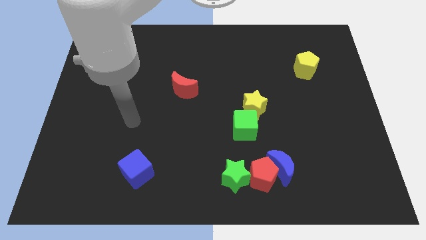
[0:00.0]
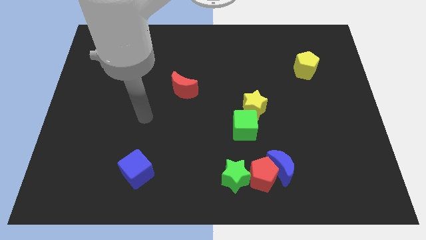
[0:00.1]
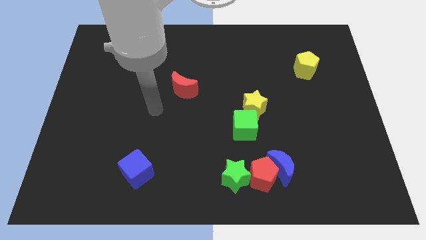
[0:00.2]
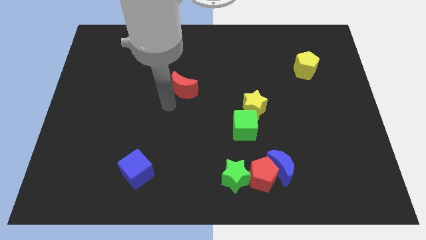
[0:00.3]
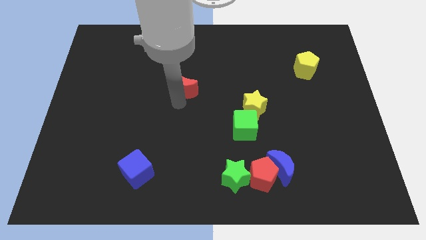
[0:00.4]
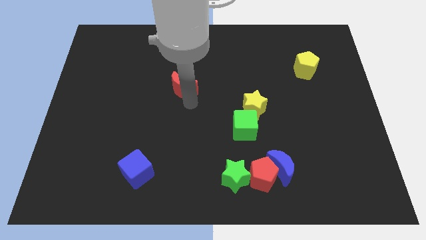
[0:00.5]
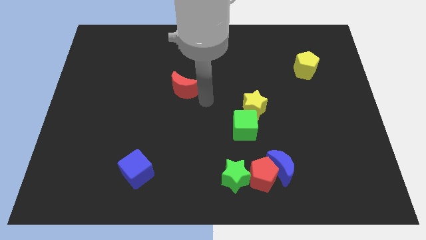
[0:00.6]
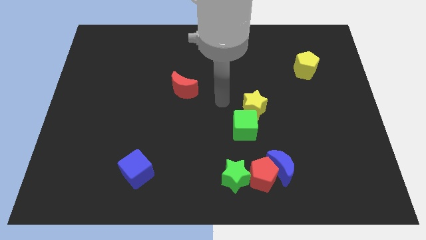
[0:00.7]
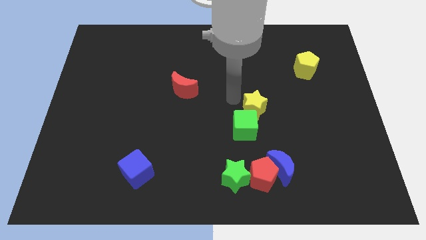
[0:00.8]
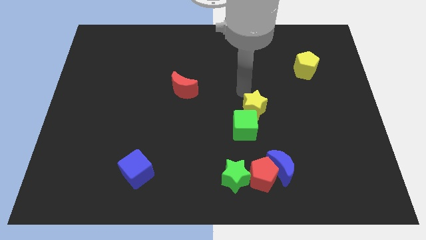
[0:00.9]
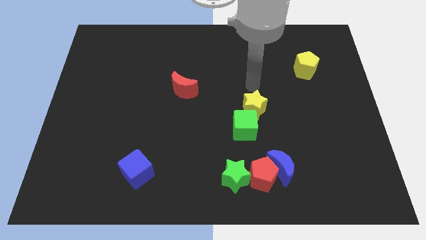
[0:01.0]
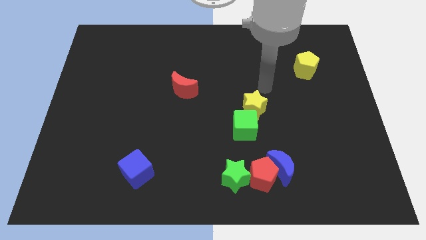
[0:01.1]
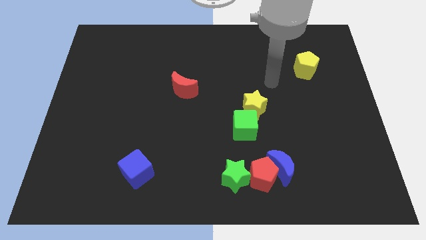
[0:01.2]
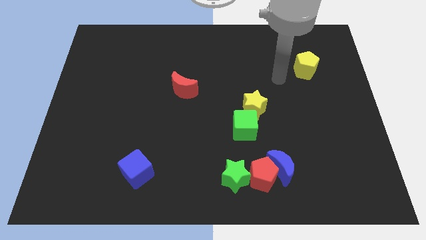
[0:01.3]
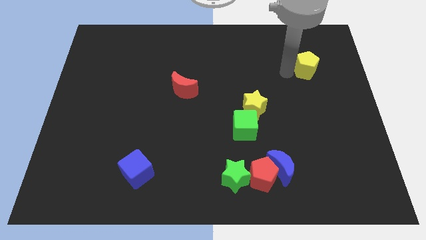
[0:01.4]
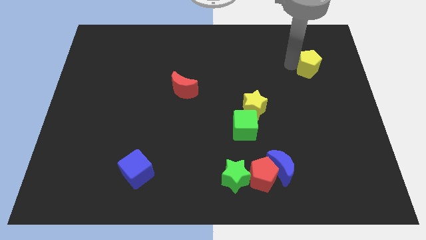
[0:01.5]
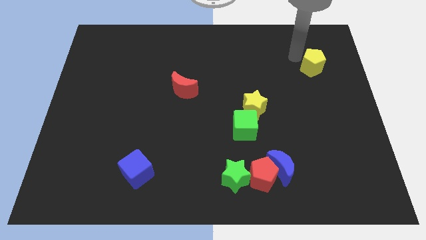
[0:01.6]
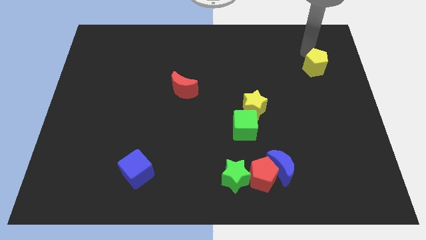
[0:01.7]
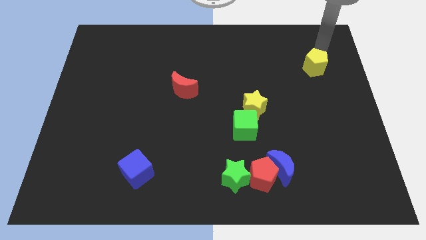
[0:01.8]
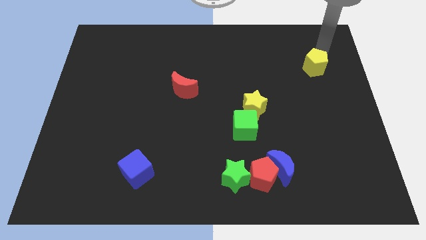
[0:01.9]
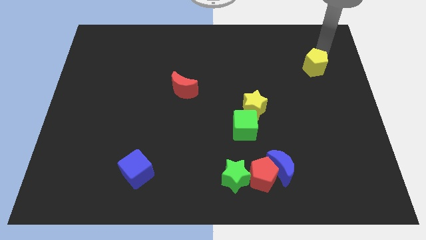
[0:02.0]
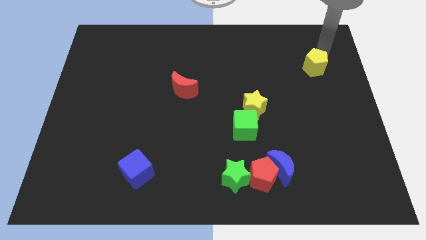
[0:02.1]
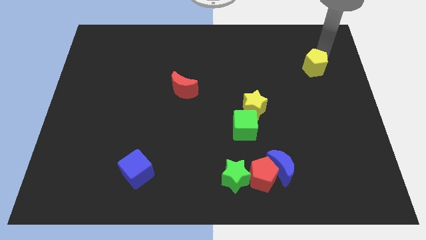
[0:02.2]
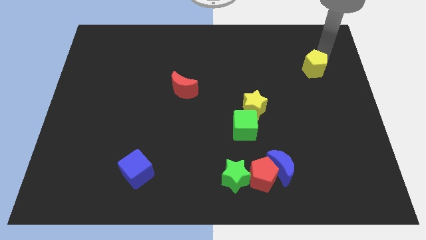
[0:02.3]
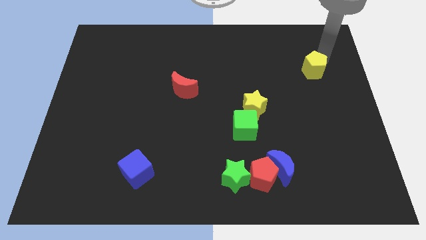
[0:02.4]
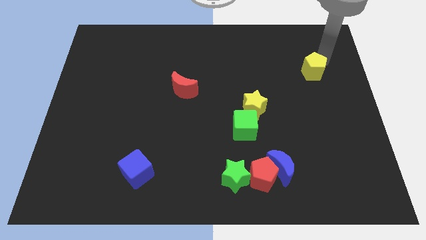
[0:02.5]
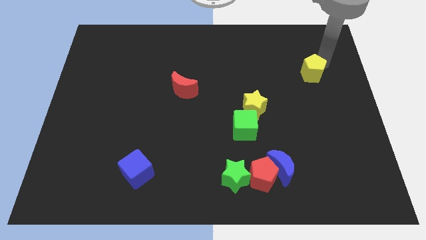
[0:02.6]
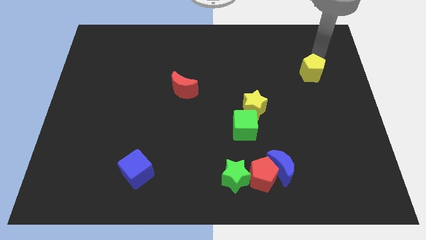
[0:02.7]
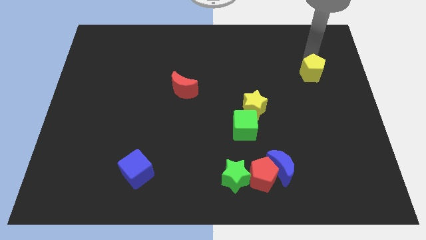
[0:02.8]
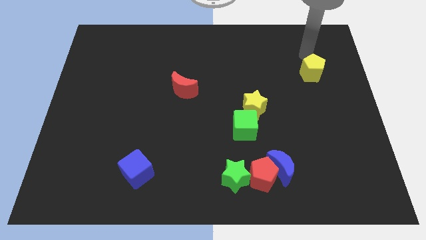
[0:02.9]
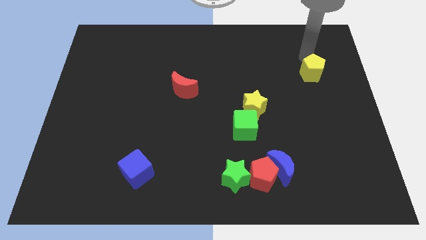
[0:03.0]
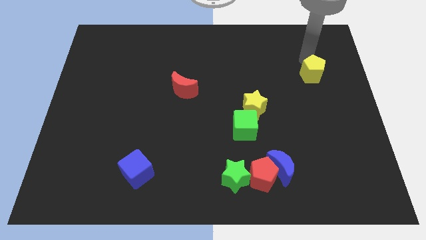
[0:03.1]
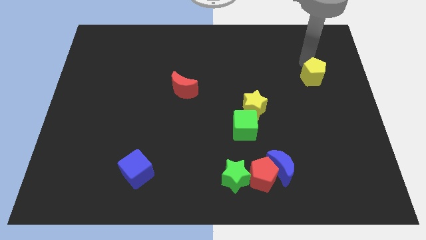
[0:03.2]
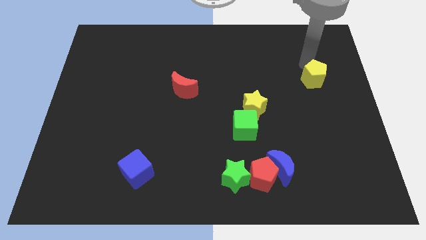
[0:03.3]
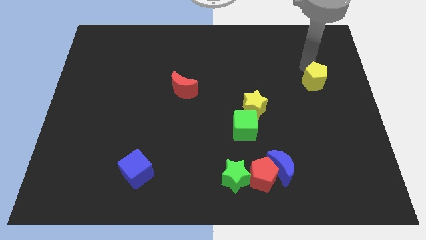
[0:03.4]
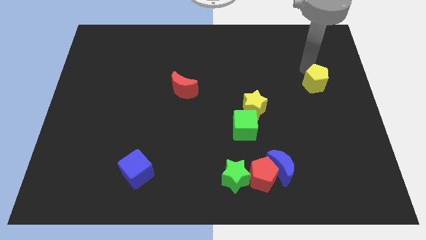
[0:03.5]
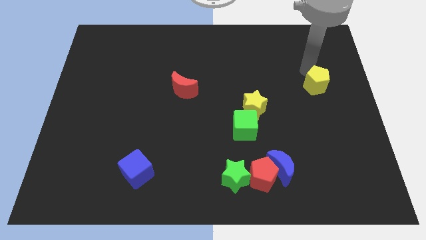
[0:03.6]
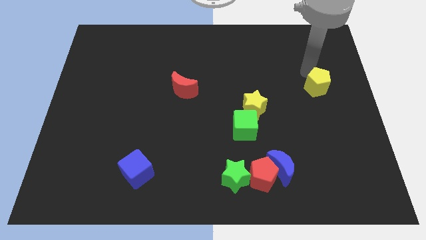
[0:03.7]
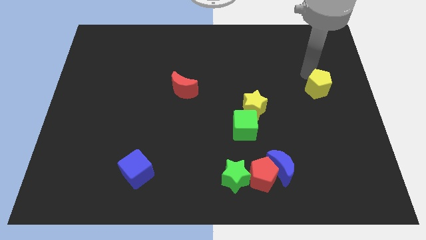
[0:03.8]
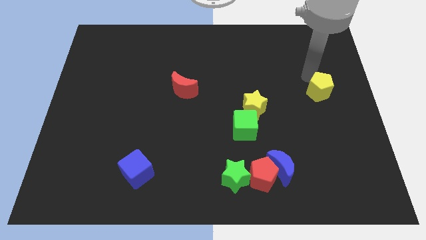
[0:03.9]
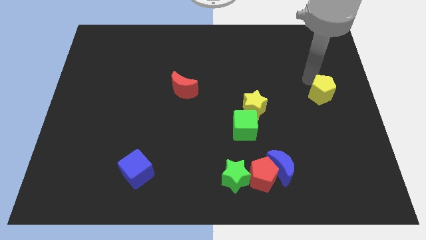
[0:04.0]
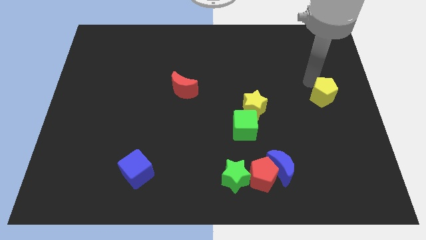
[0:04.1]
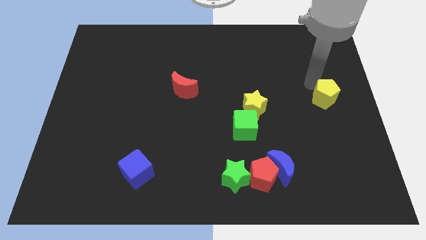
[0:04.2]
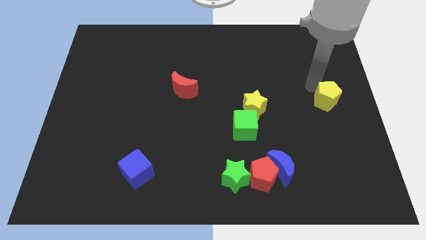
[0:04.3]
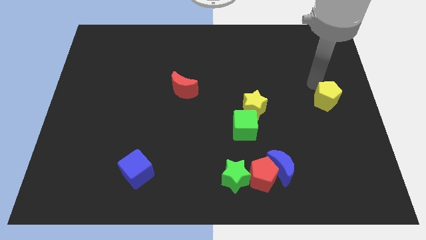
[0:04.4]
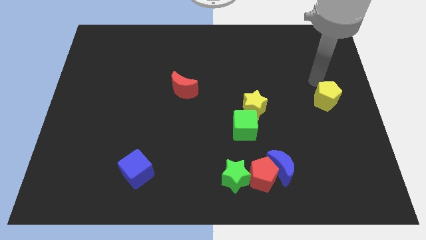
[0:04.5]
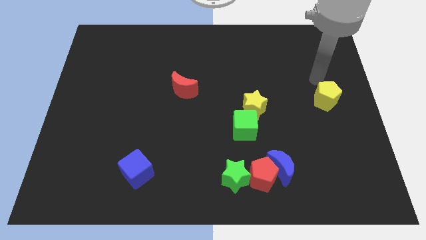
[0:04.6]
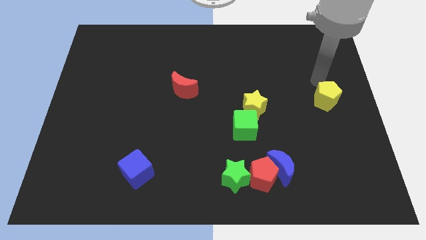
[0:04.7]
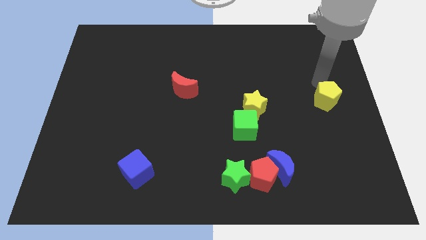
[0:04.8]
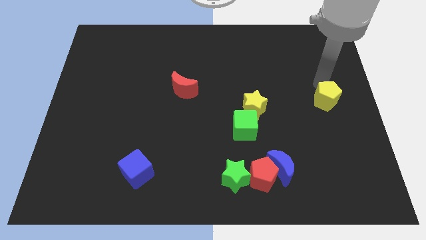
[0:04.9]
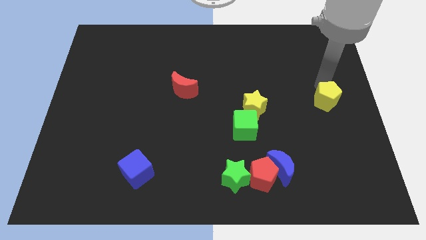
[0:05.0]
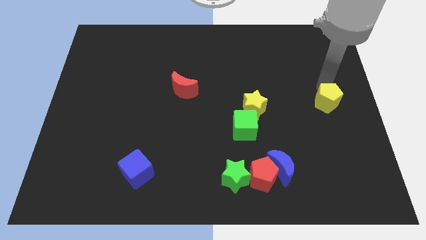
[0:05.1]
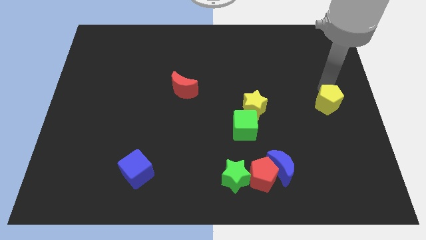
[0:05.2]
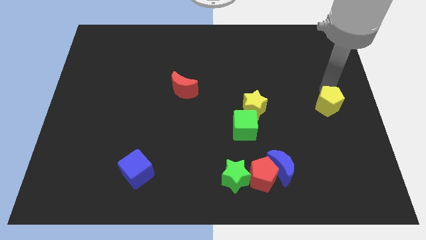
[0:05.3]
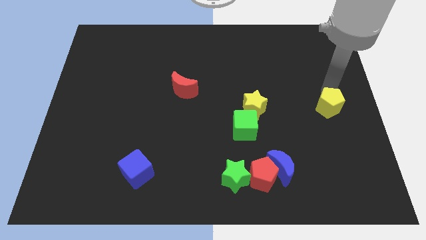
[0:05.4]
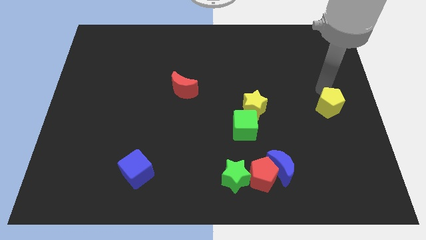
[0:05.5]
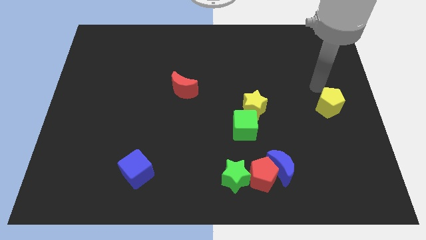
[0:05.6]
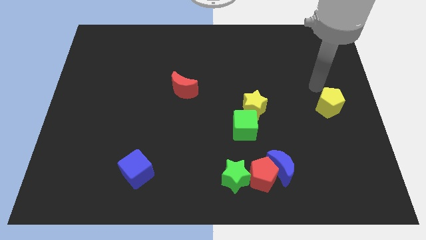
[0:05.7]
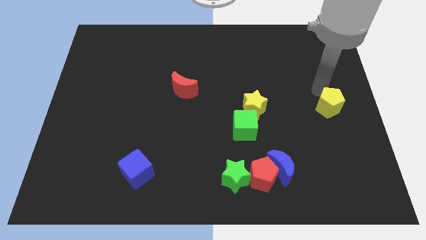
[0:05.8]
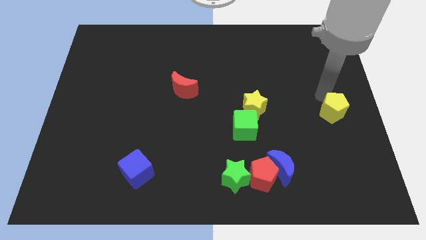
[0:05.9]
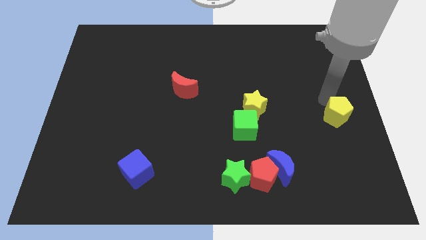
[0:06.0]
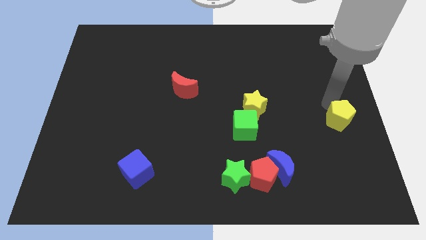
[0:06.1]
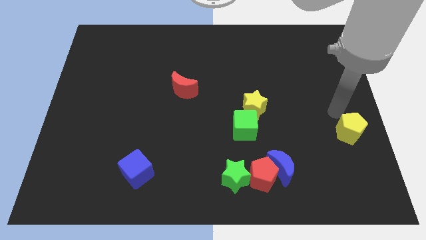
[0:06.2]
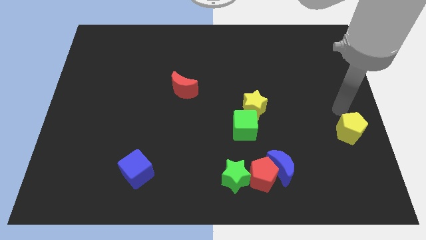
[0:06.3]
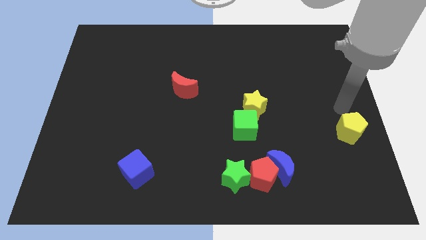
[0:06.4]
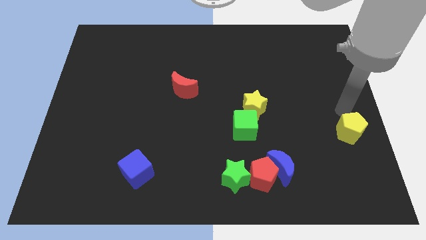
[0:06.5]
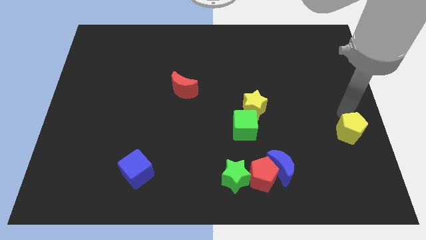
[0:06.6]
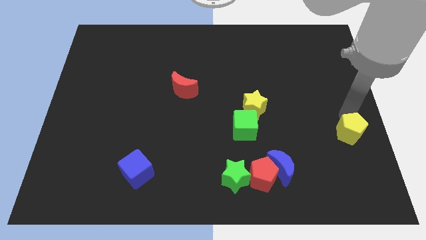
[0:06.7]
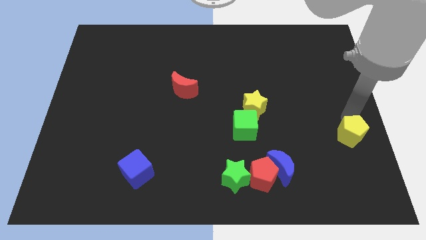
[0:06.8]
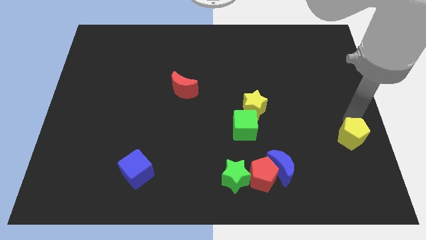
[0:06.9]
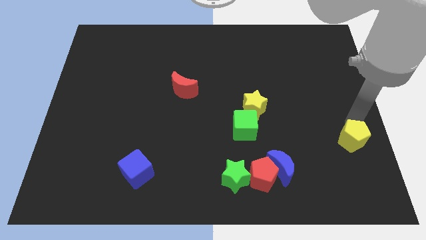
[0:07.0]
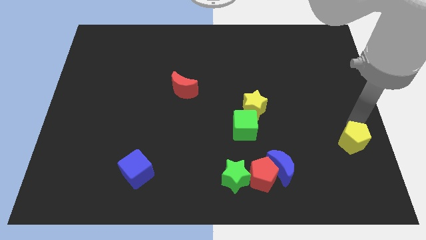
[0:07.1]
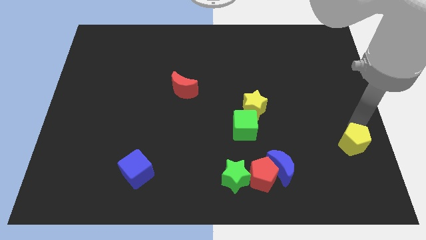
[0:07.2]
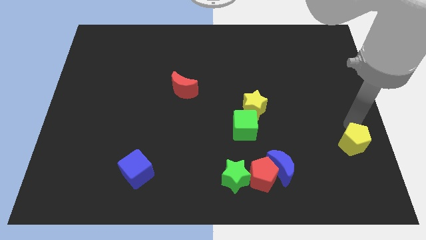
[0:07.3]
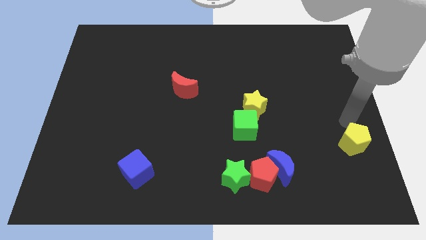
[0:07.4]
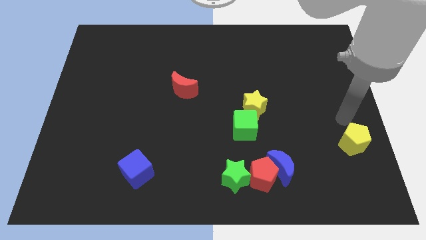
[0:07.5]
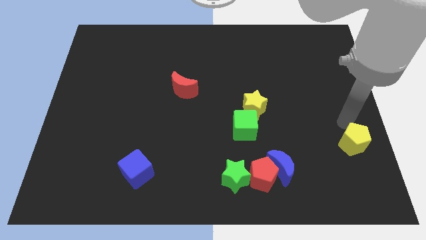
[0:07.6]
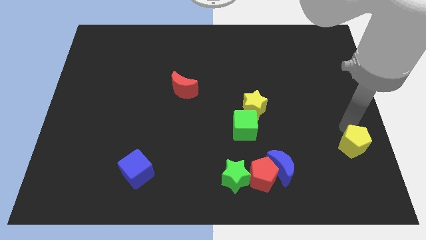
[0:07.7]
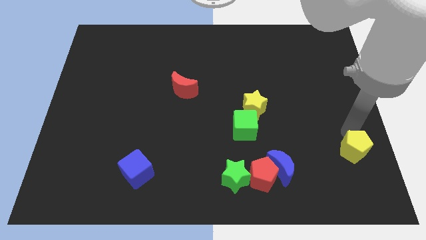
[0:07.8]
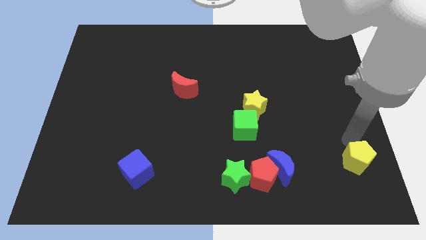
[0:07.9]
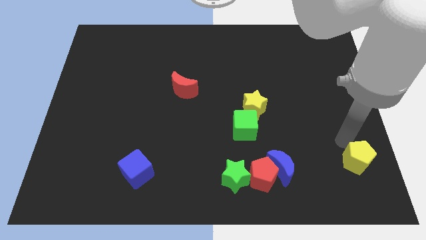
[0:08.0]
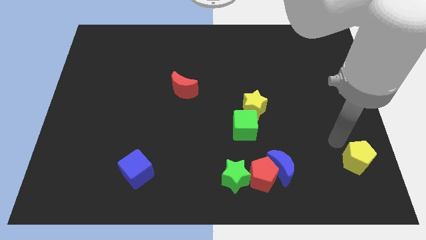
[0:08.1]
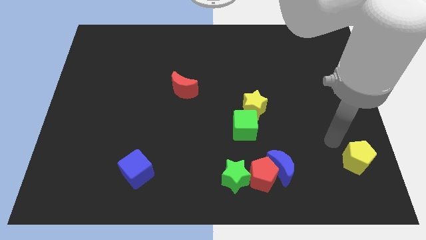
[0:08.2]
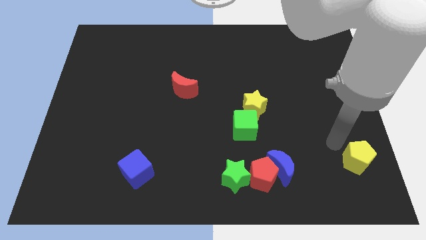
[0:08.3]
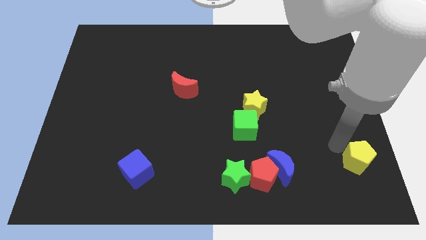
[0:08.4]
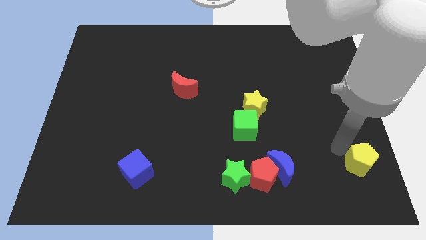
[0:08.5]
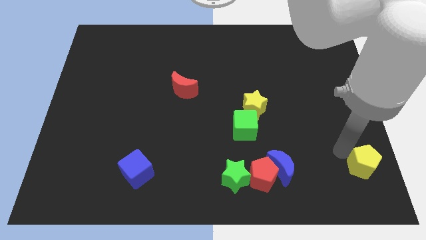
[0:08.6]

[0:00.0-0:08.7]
push the yellow pentagon to the lower right corner
